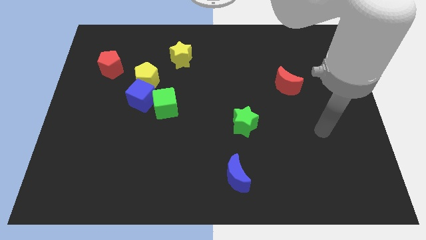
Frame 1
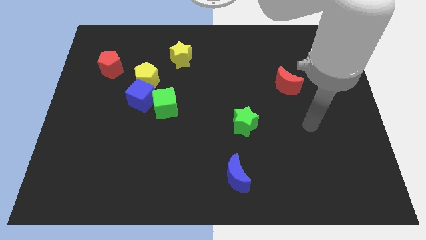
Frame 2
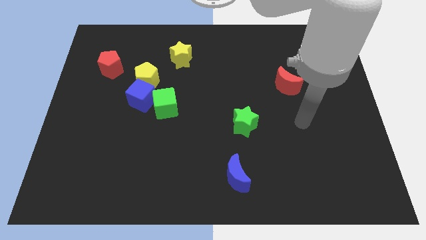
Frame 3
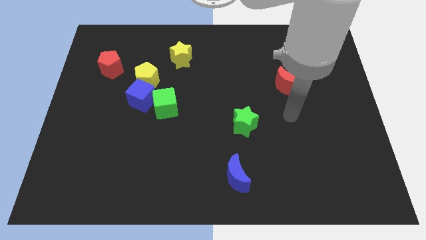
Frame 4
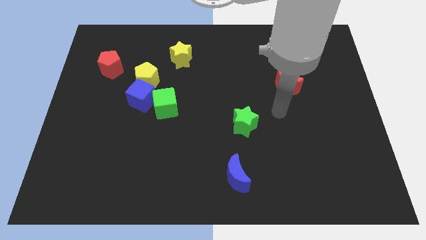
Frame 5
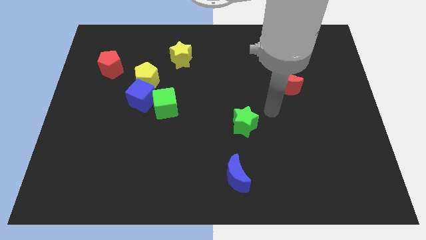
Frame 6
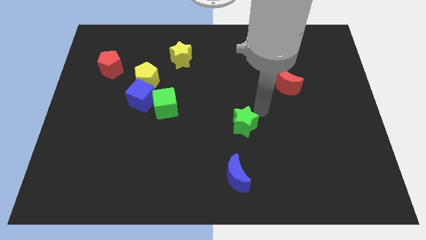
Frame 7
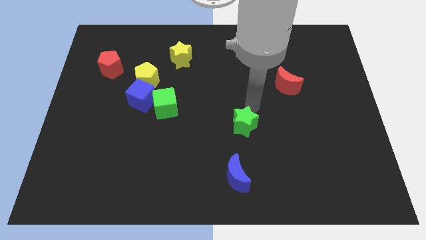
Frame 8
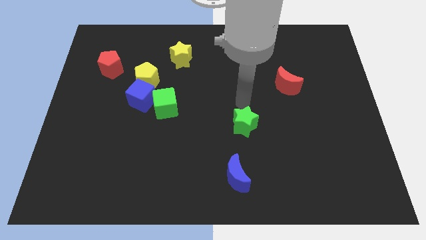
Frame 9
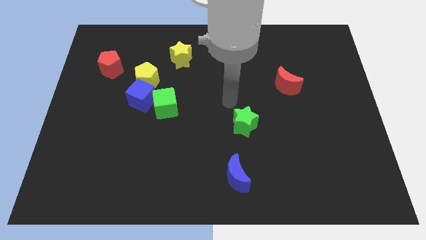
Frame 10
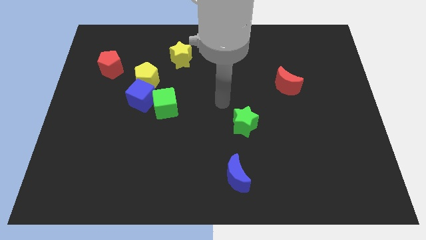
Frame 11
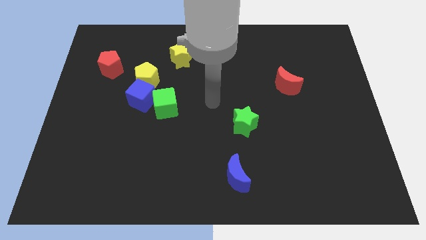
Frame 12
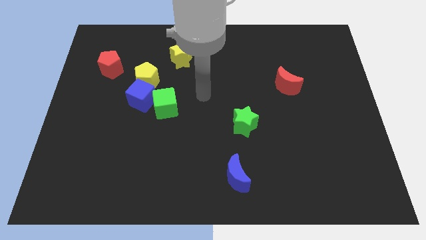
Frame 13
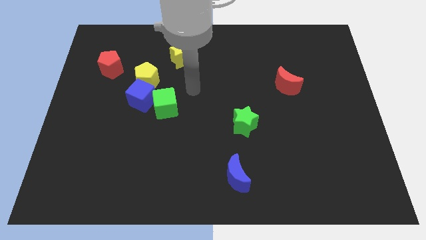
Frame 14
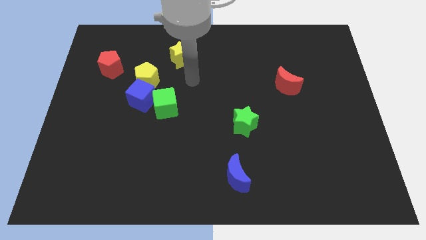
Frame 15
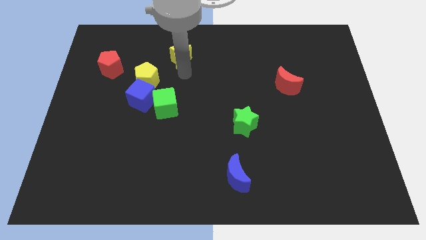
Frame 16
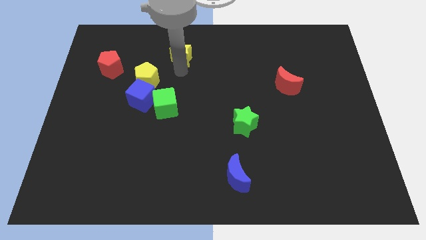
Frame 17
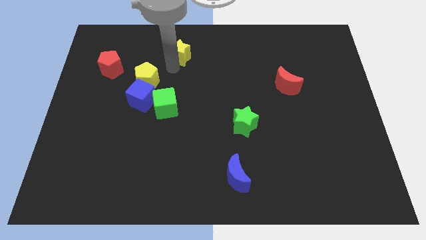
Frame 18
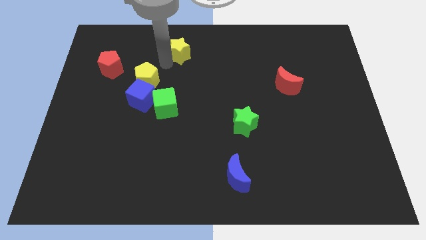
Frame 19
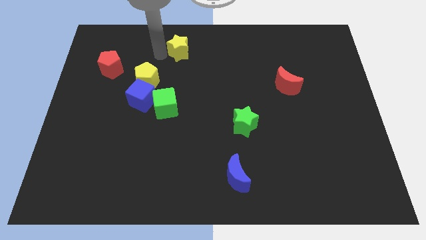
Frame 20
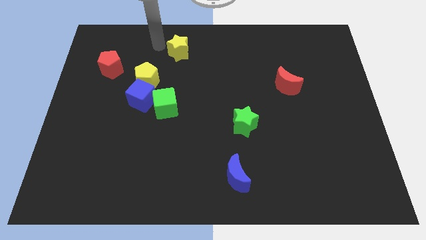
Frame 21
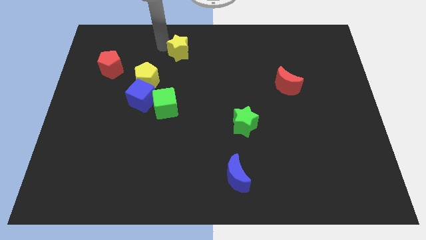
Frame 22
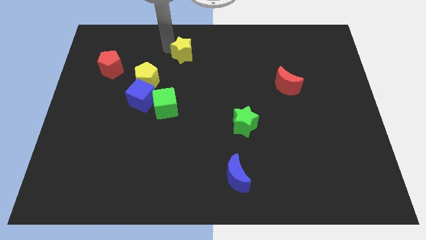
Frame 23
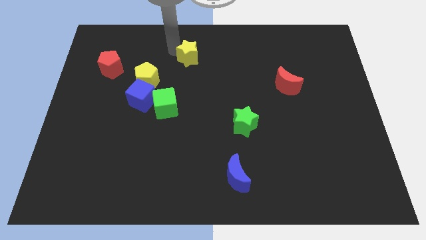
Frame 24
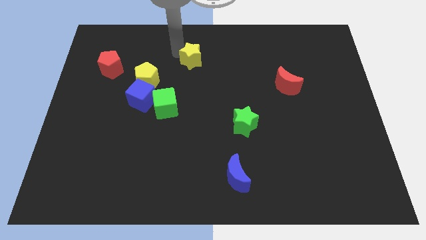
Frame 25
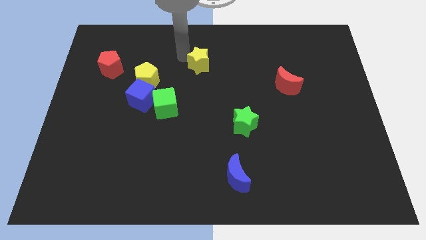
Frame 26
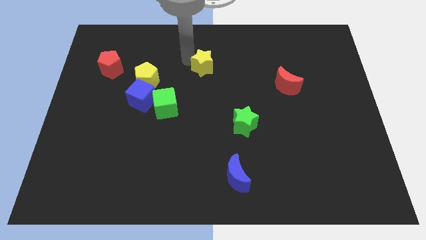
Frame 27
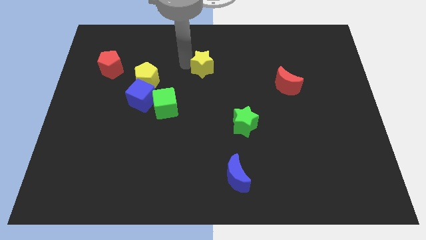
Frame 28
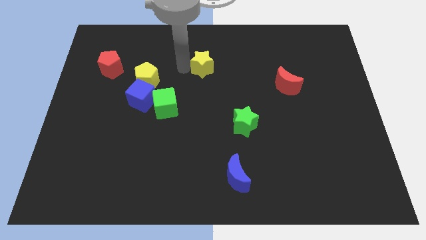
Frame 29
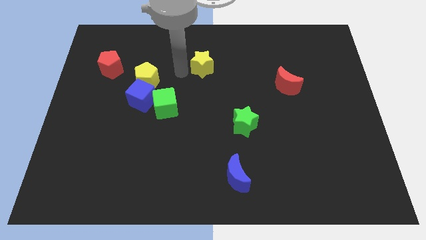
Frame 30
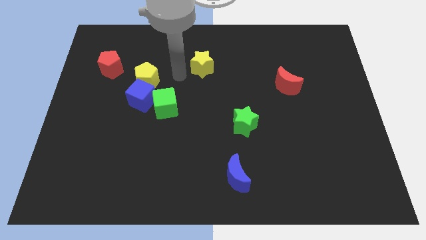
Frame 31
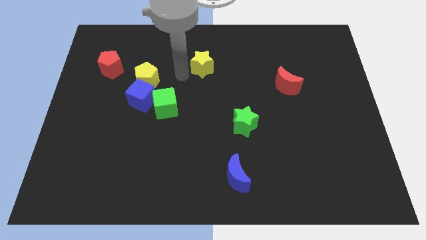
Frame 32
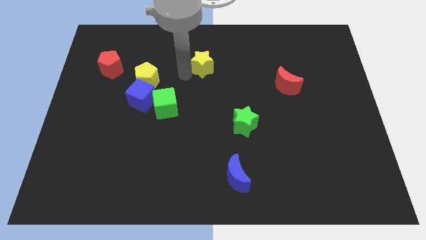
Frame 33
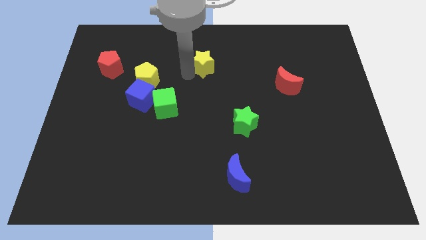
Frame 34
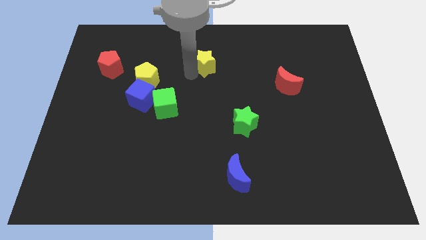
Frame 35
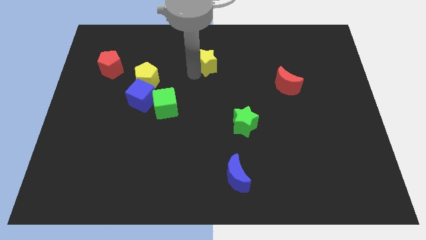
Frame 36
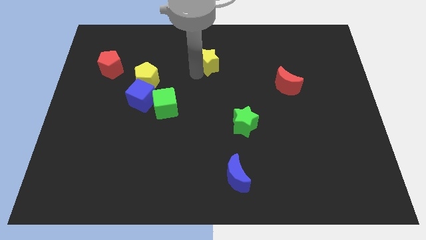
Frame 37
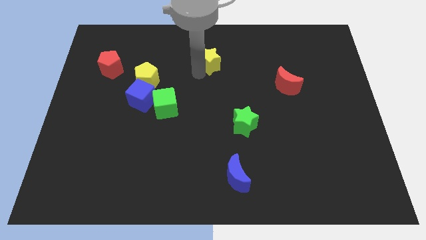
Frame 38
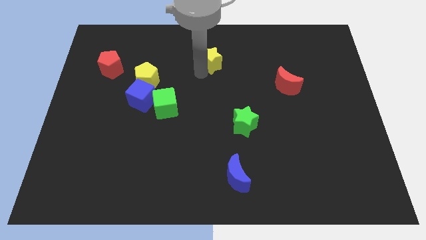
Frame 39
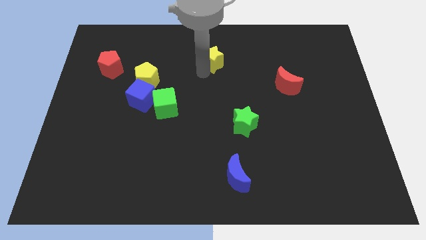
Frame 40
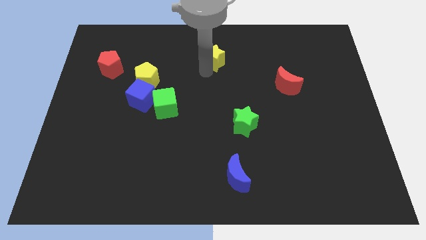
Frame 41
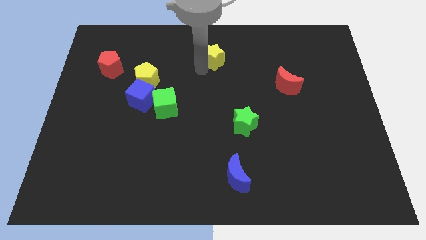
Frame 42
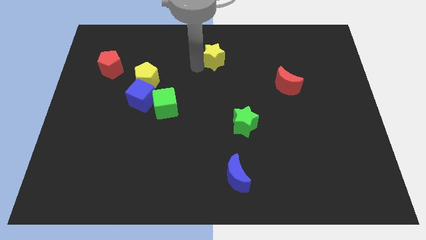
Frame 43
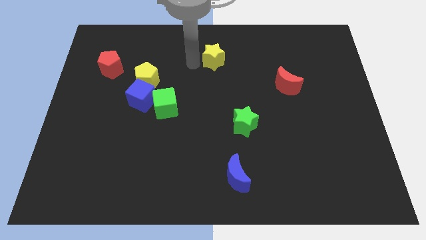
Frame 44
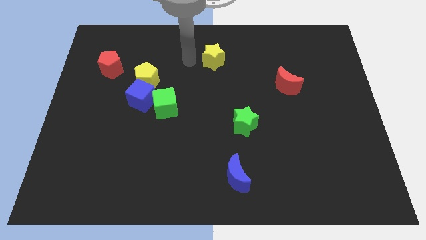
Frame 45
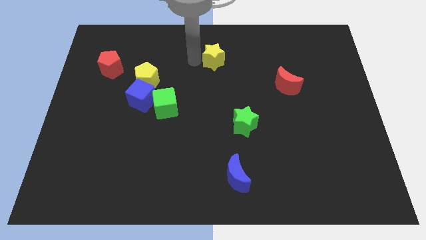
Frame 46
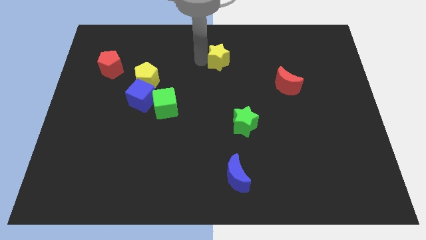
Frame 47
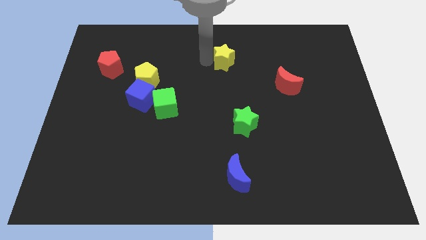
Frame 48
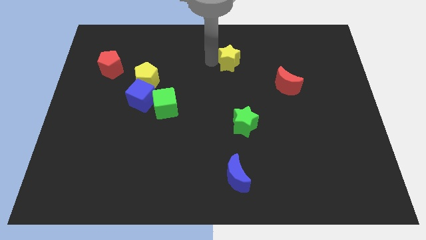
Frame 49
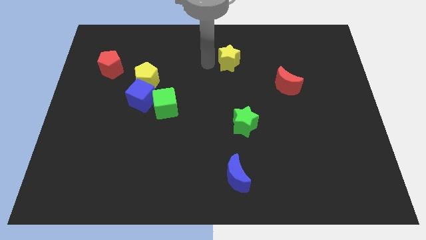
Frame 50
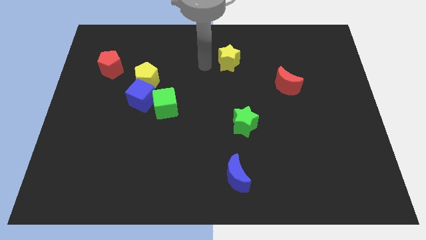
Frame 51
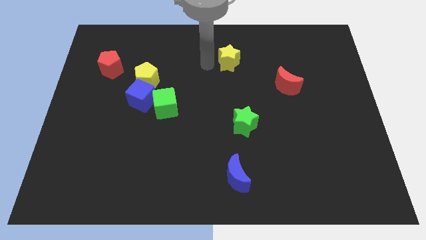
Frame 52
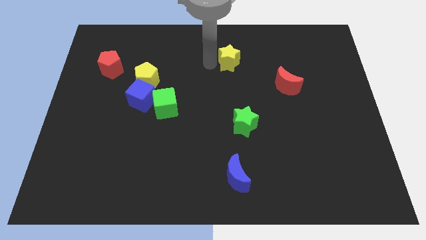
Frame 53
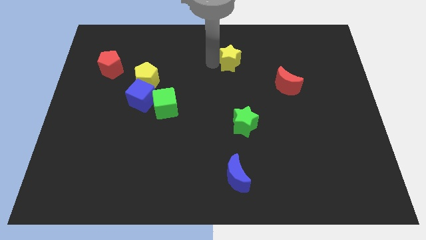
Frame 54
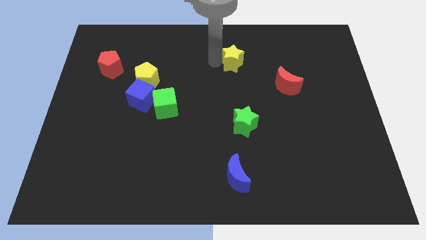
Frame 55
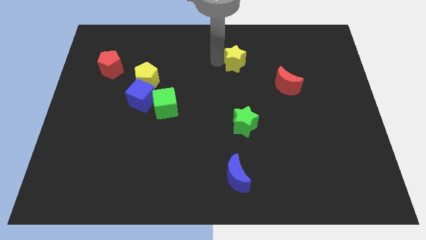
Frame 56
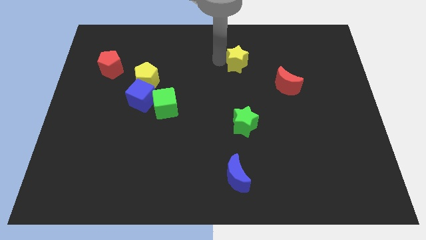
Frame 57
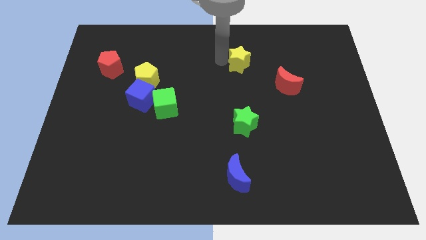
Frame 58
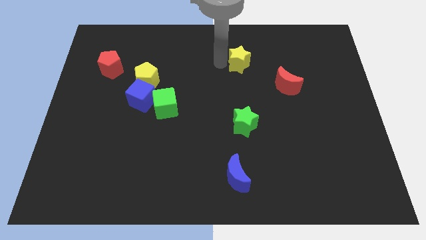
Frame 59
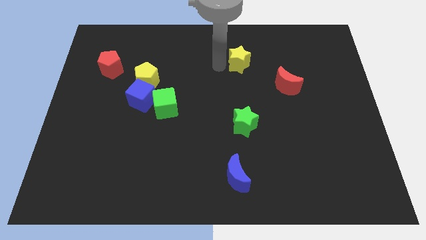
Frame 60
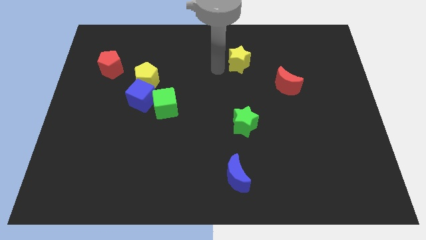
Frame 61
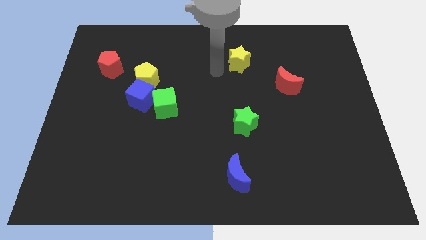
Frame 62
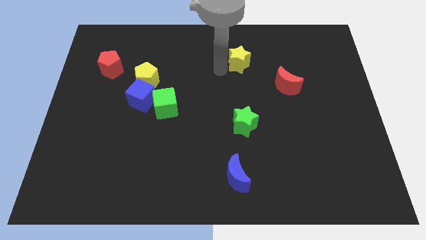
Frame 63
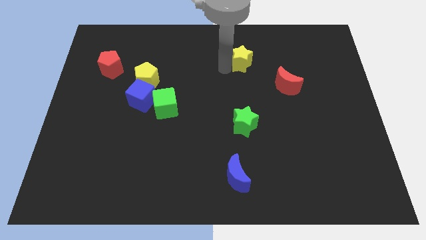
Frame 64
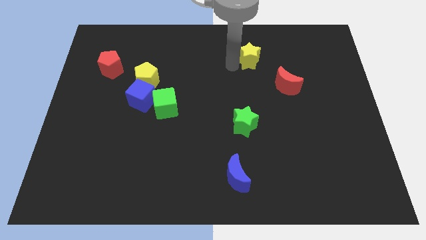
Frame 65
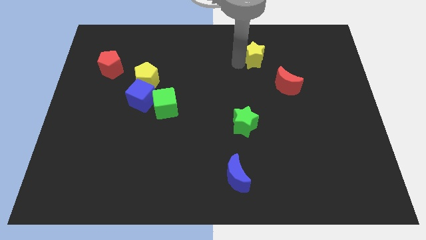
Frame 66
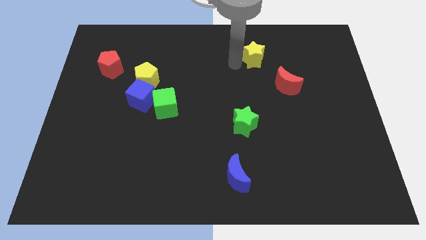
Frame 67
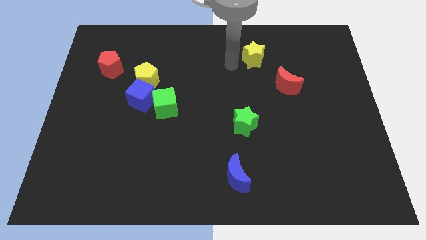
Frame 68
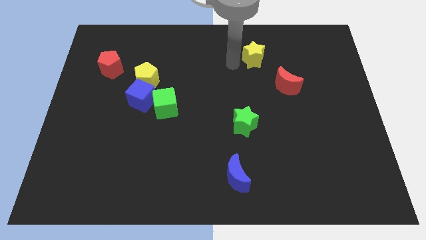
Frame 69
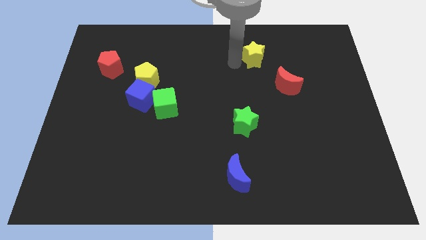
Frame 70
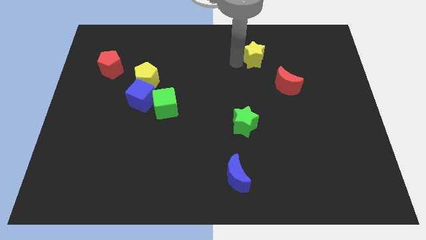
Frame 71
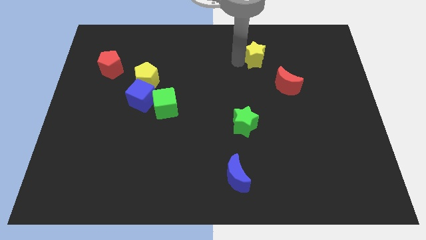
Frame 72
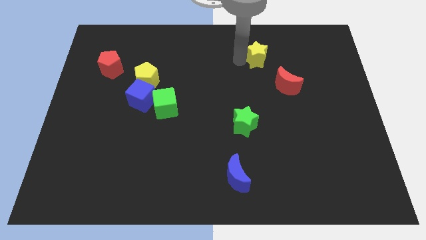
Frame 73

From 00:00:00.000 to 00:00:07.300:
move the yellow star right

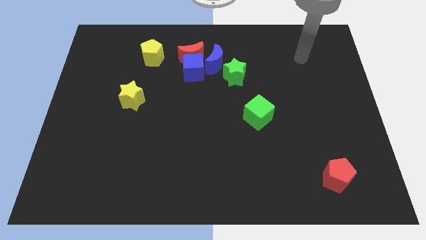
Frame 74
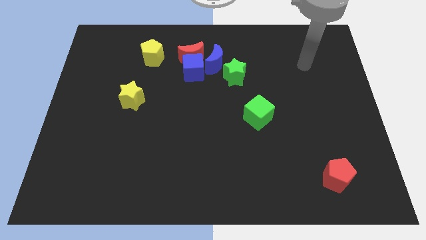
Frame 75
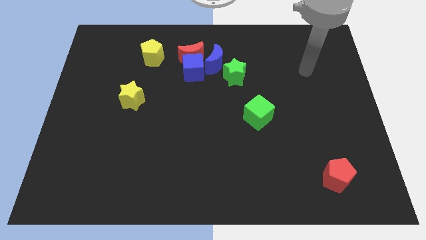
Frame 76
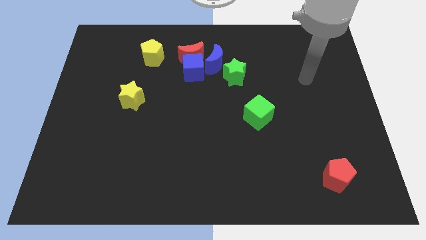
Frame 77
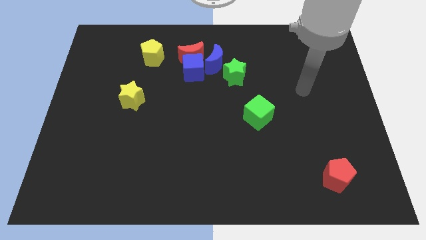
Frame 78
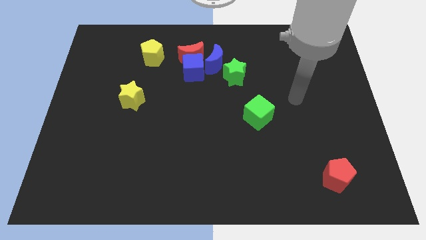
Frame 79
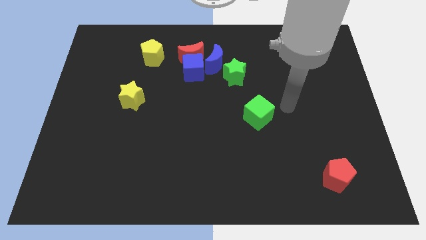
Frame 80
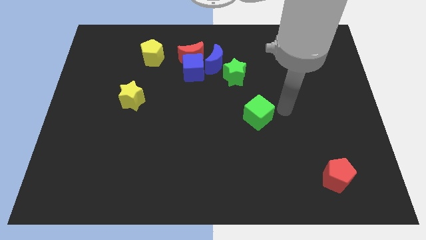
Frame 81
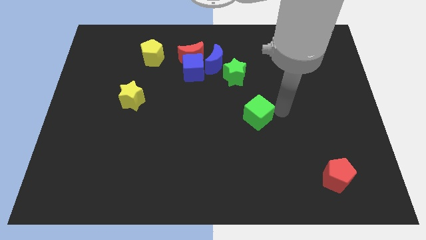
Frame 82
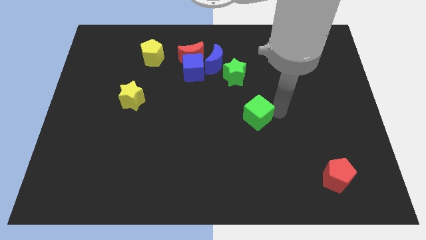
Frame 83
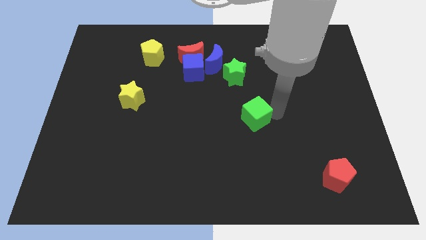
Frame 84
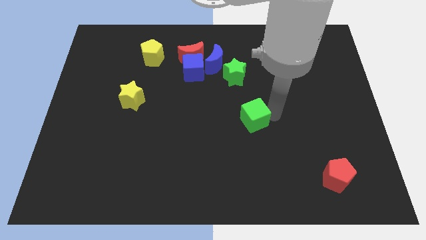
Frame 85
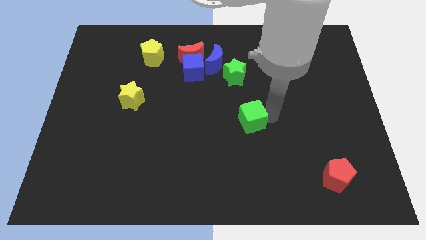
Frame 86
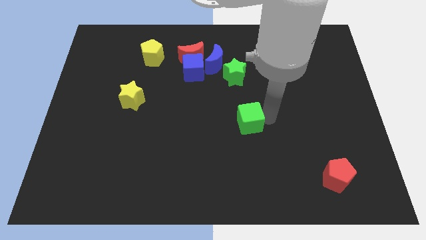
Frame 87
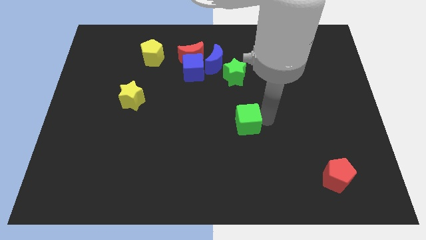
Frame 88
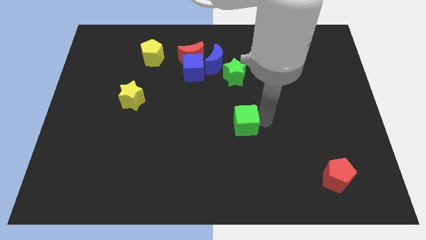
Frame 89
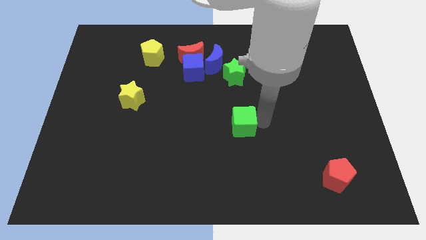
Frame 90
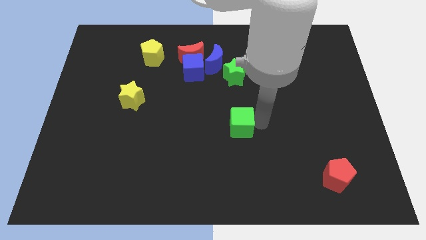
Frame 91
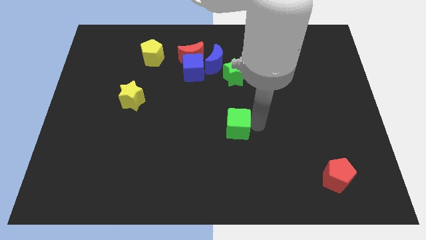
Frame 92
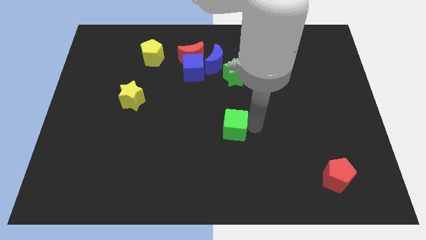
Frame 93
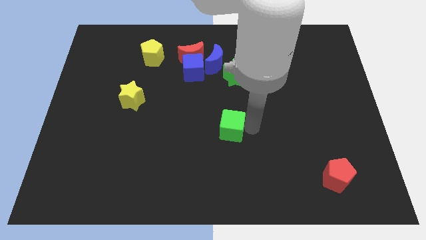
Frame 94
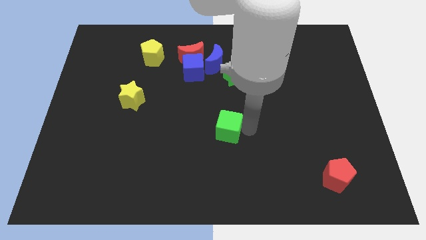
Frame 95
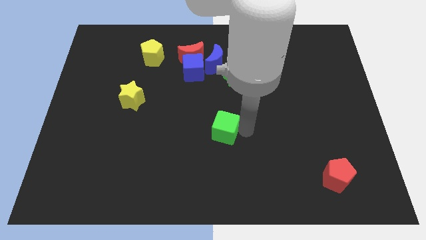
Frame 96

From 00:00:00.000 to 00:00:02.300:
slide the green cube left a bit
